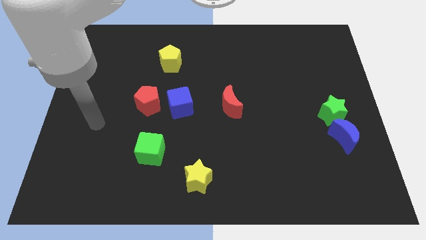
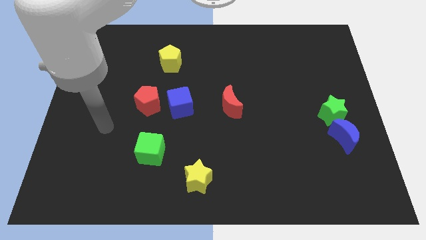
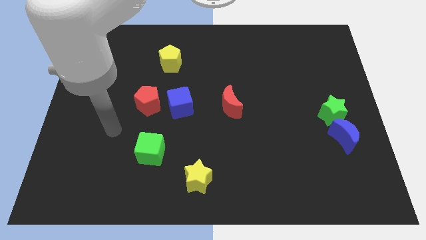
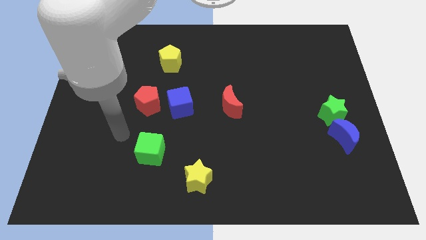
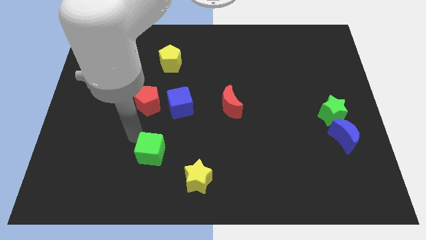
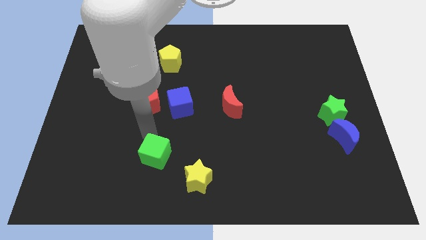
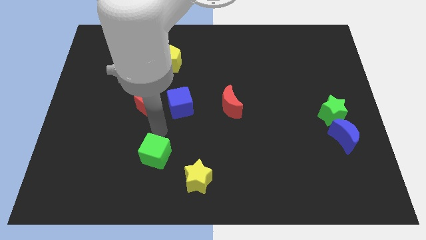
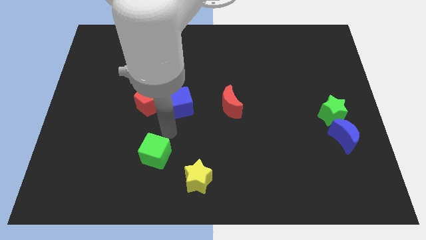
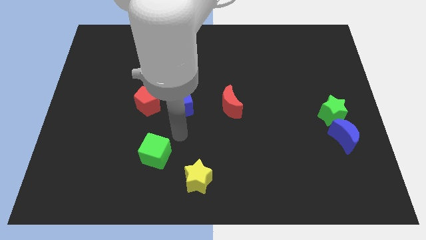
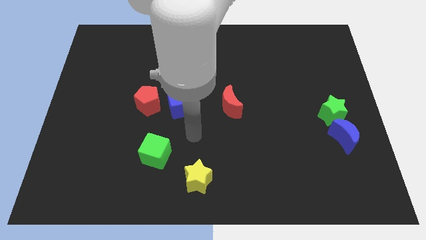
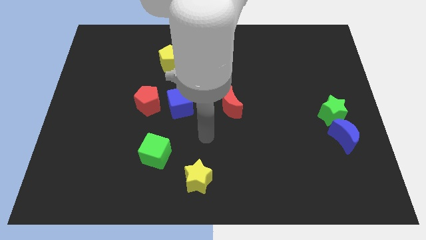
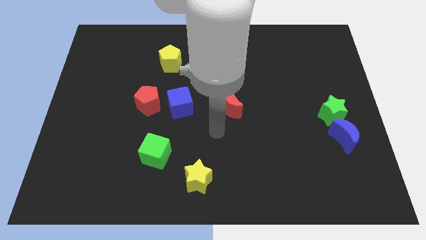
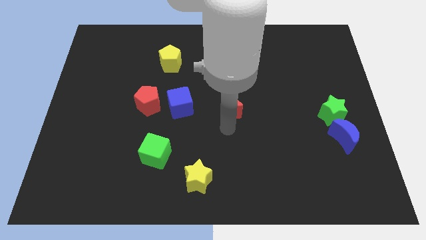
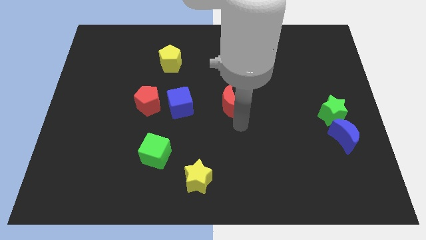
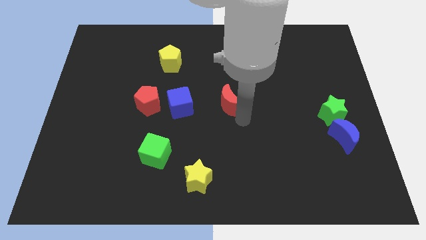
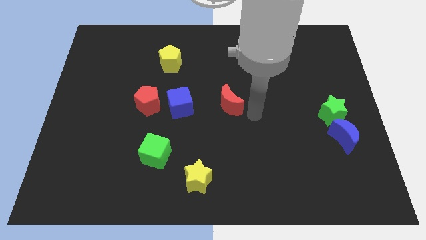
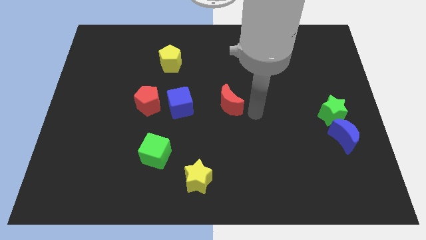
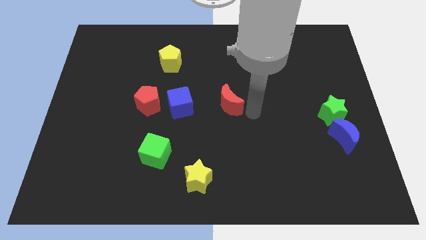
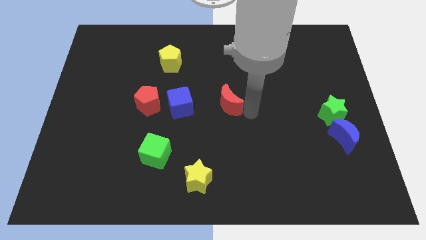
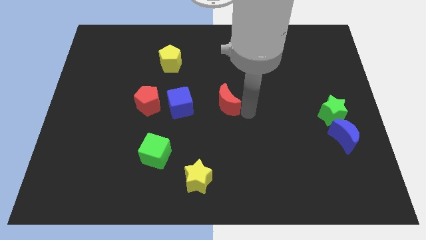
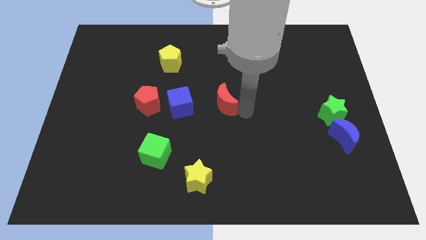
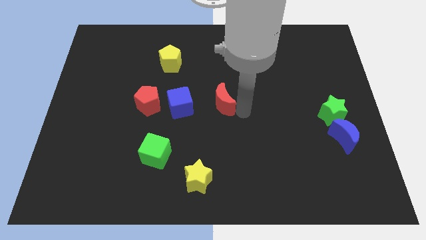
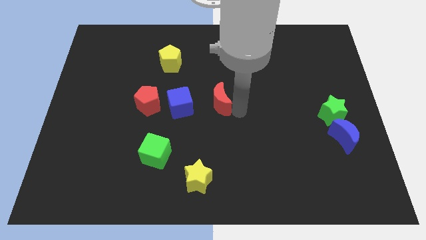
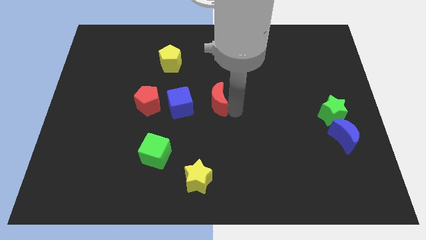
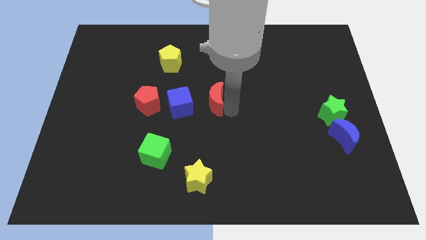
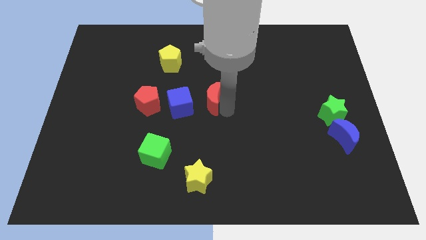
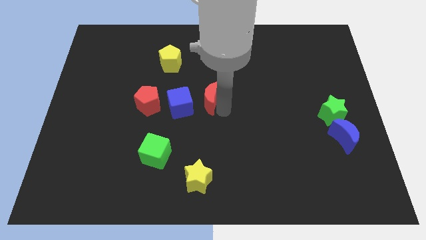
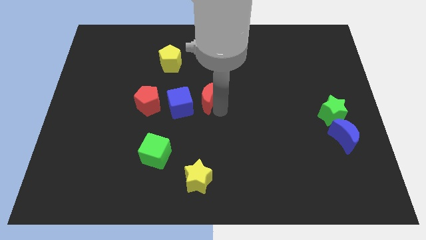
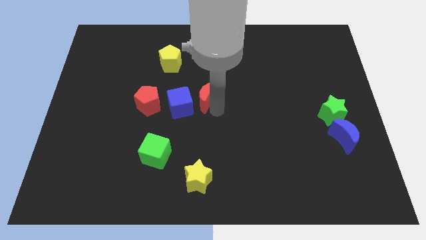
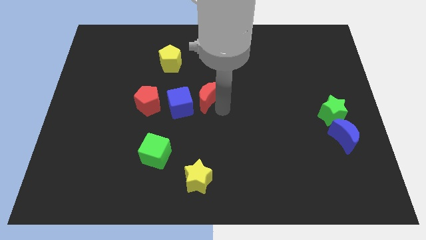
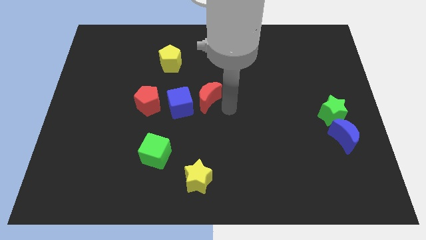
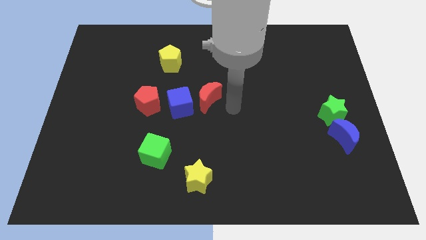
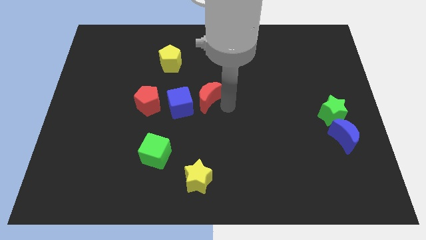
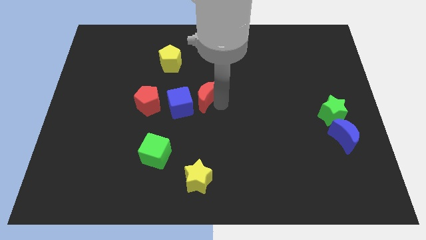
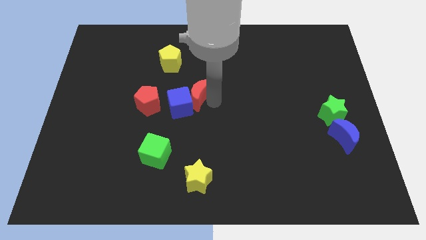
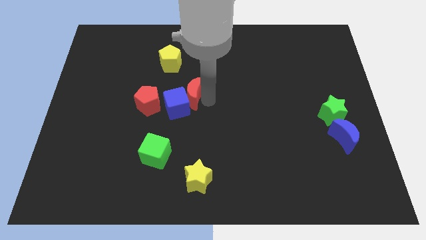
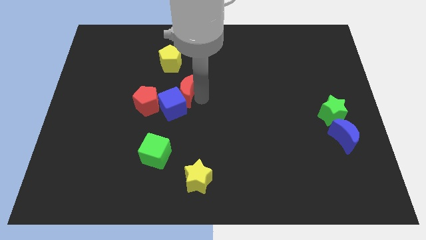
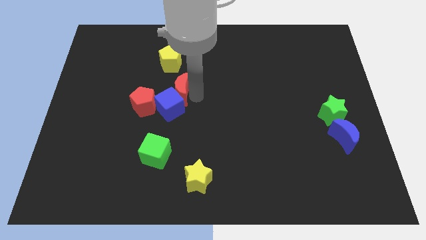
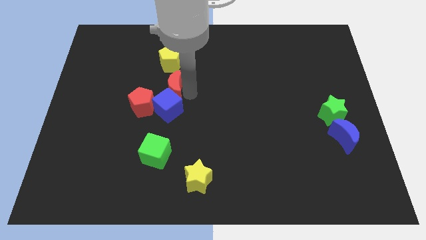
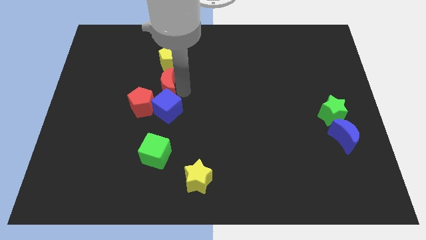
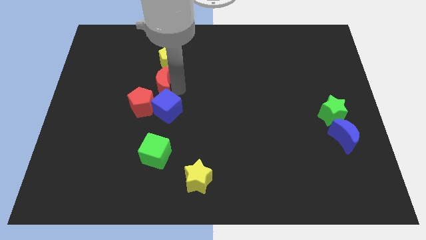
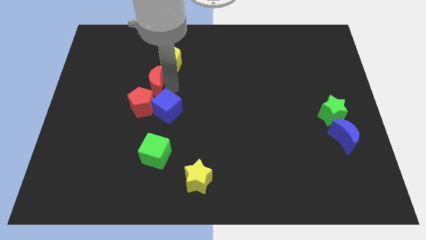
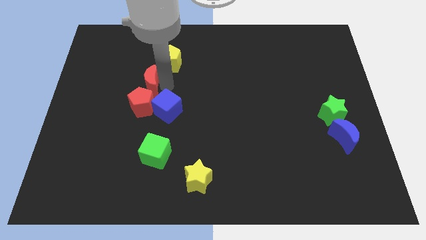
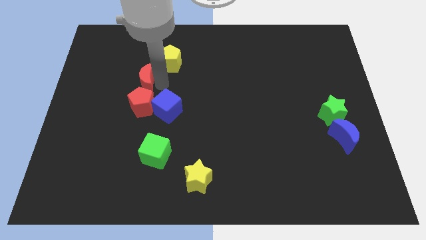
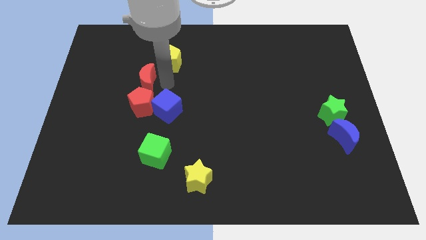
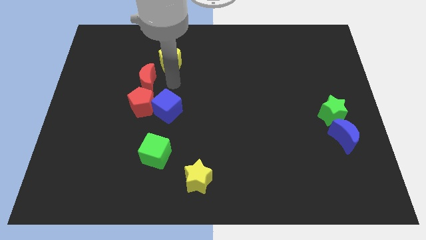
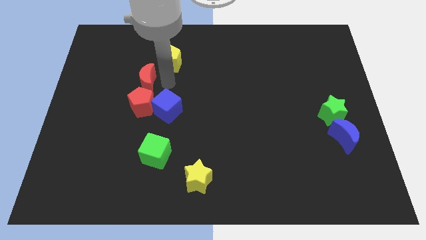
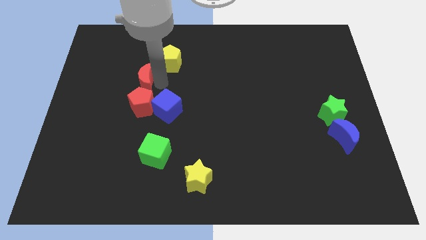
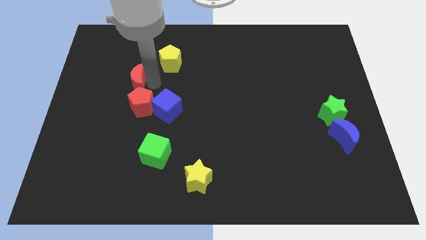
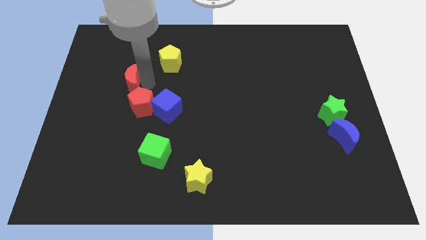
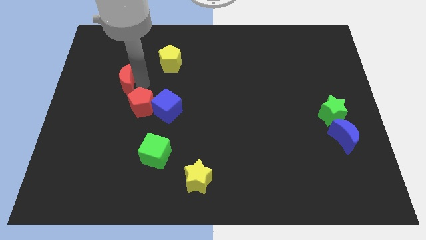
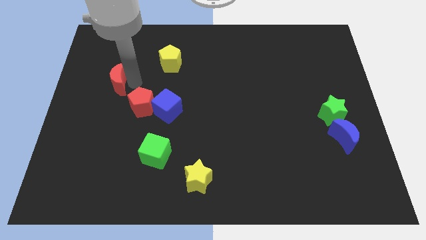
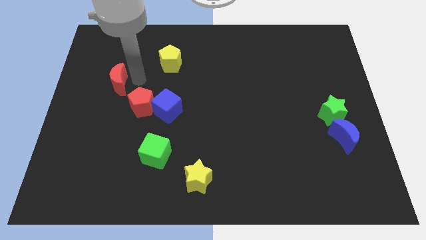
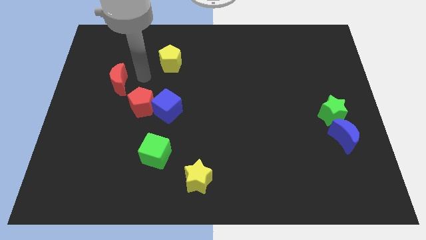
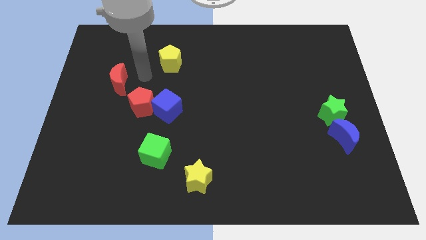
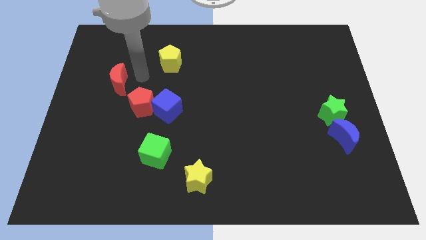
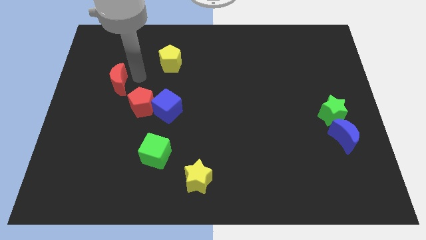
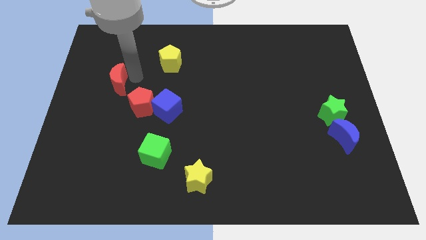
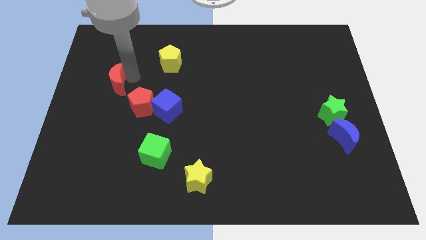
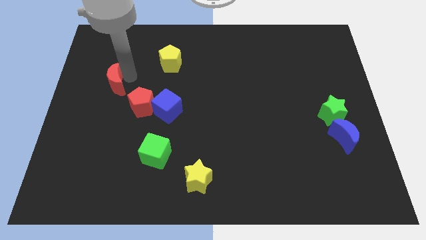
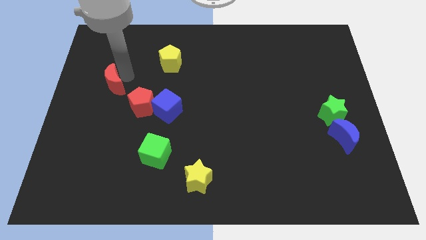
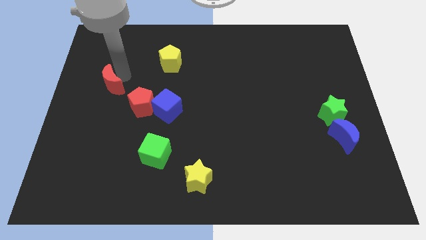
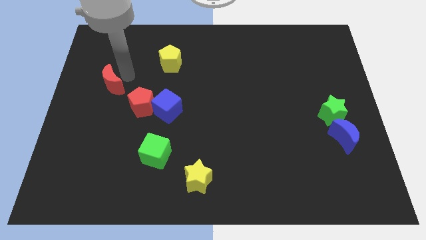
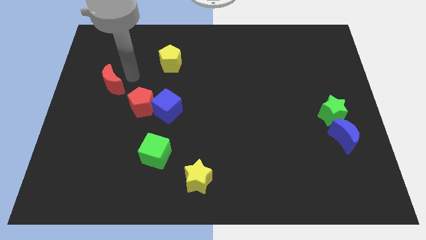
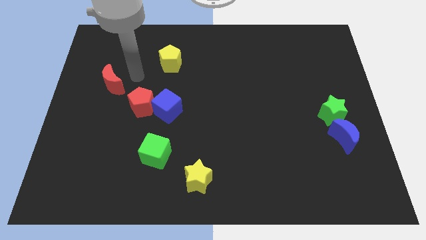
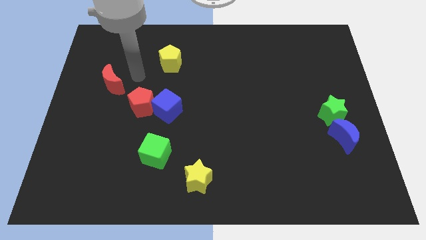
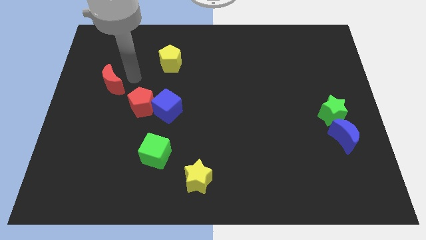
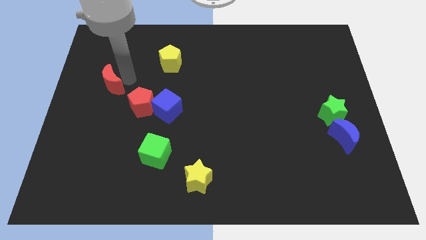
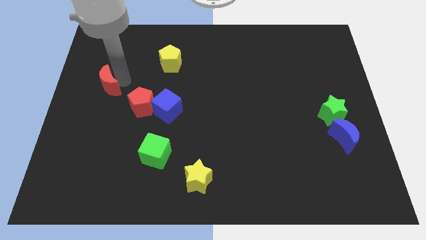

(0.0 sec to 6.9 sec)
put the red moon to the center left
